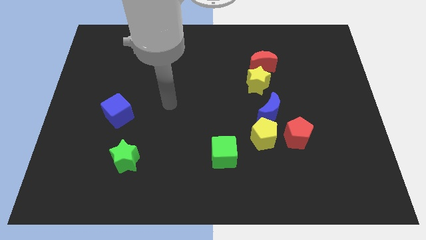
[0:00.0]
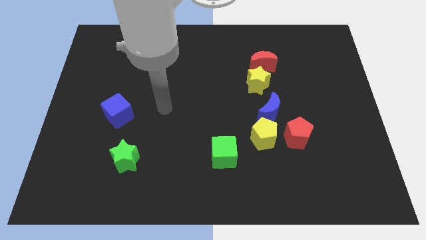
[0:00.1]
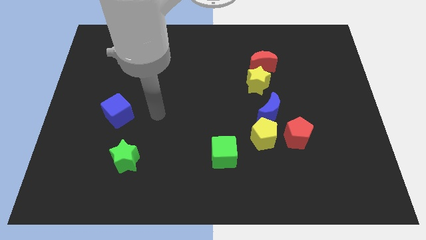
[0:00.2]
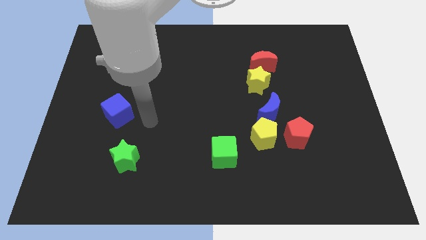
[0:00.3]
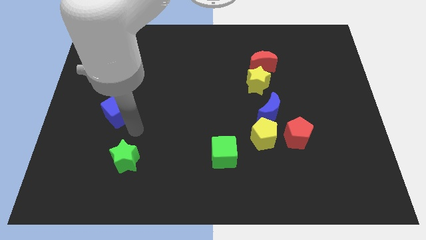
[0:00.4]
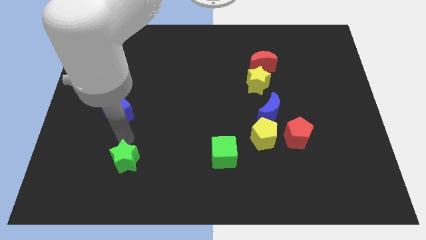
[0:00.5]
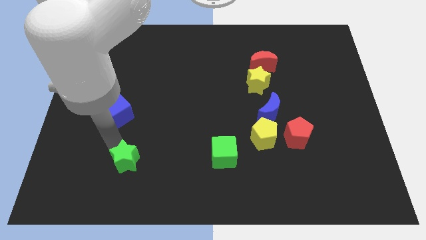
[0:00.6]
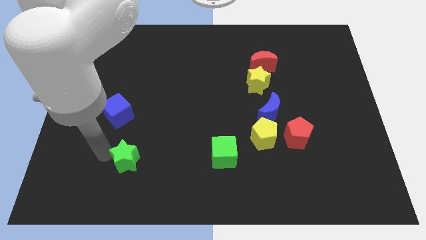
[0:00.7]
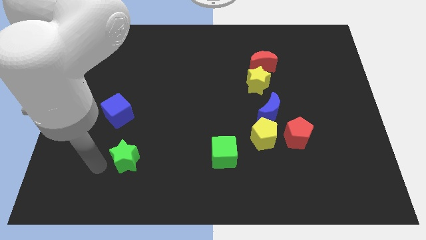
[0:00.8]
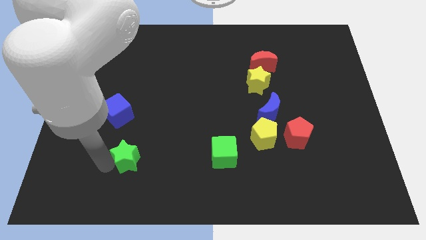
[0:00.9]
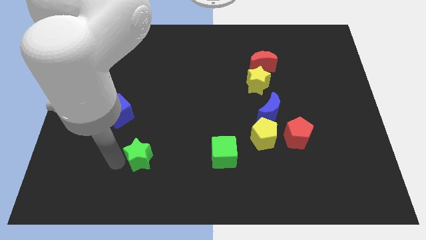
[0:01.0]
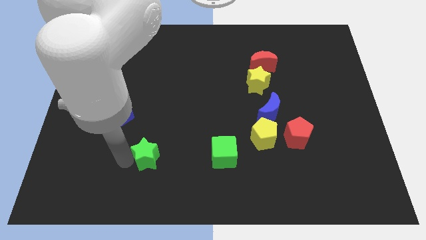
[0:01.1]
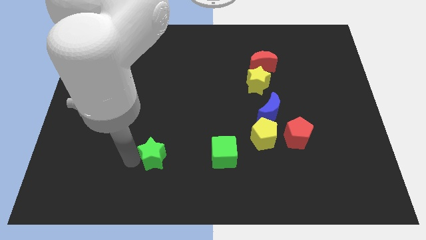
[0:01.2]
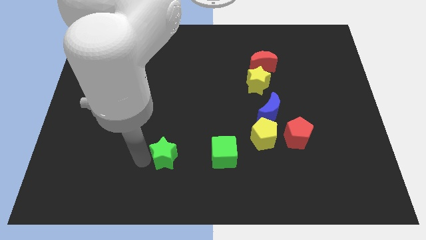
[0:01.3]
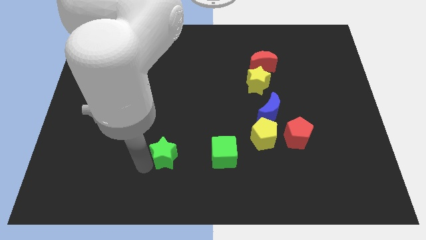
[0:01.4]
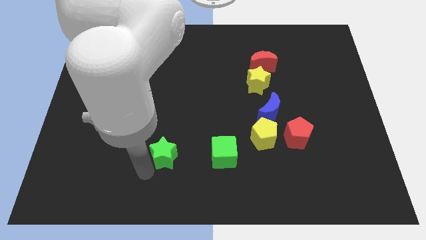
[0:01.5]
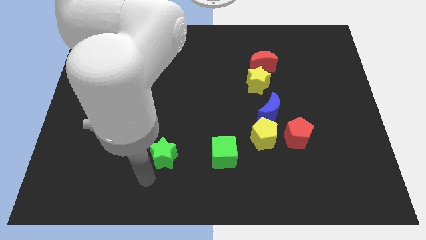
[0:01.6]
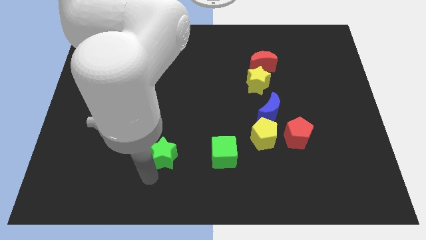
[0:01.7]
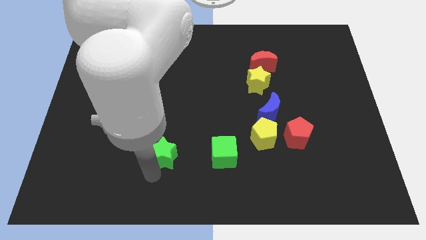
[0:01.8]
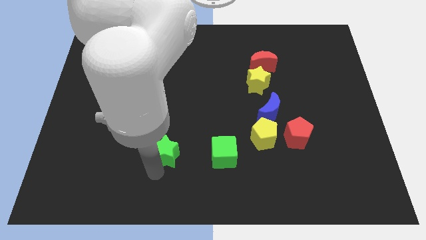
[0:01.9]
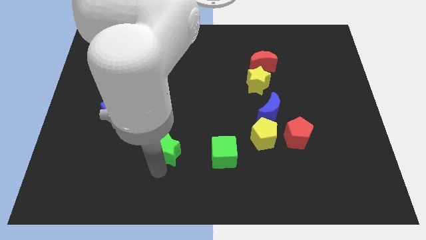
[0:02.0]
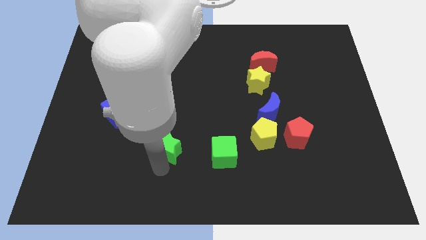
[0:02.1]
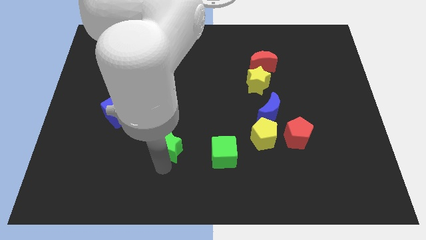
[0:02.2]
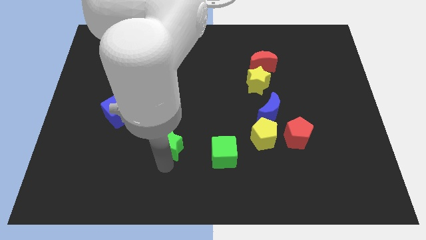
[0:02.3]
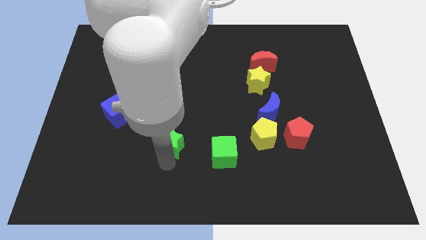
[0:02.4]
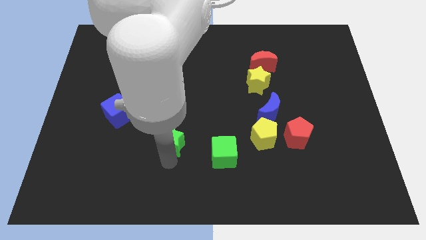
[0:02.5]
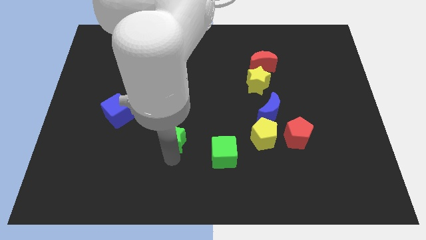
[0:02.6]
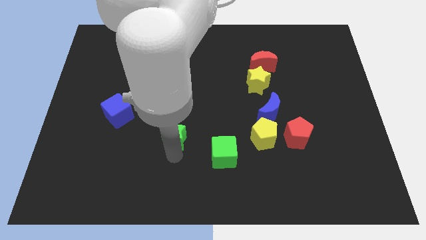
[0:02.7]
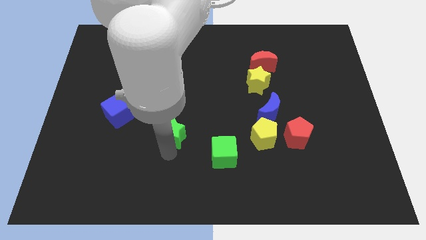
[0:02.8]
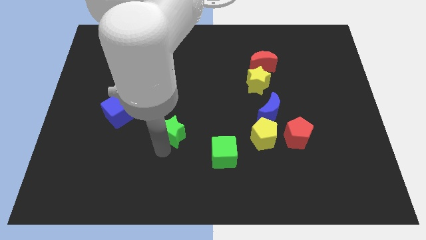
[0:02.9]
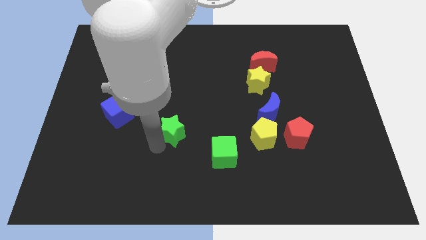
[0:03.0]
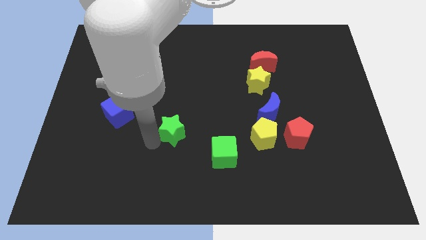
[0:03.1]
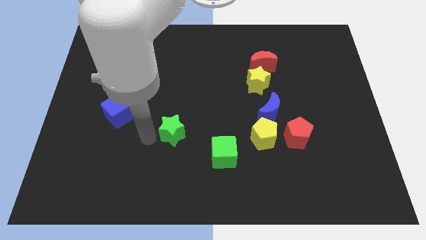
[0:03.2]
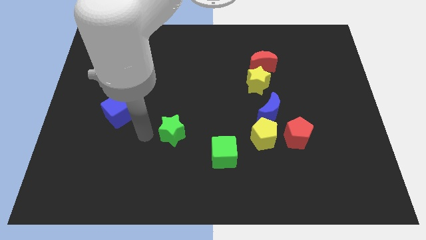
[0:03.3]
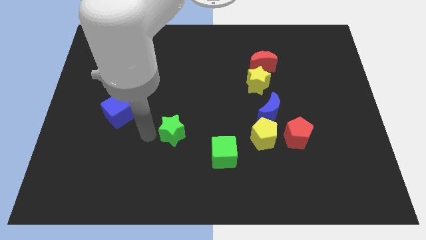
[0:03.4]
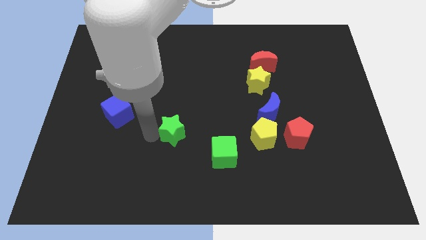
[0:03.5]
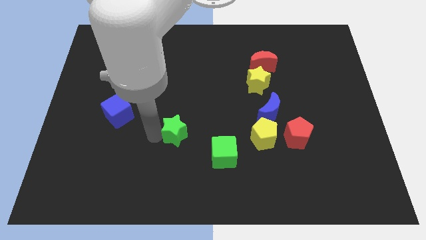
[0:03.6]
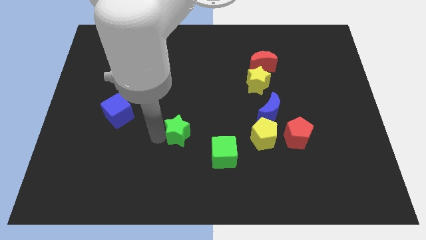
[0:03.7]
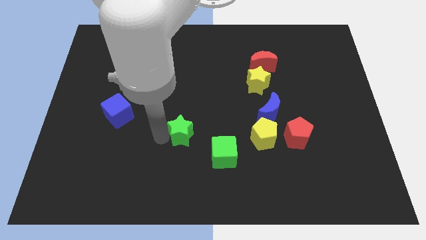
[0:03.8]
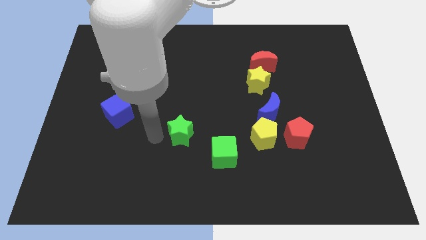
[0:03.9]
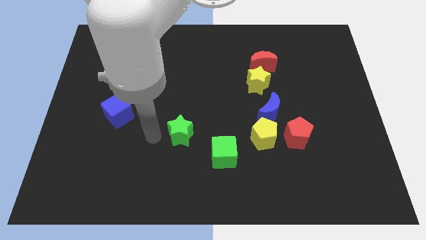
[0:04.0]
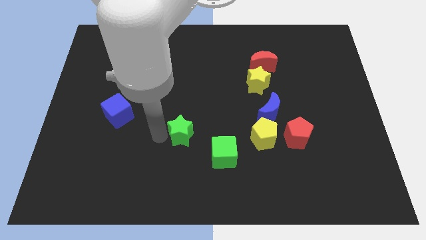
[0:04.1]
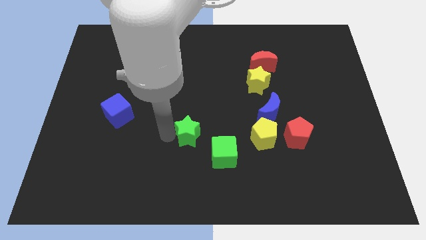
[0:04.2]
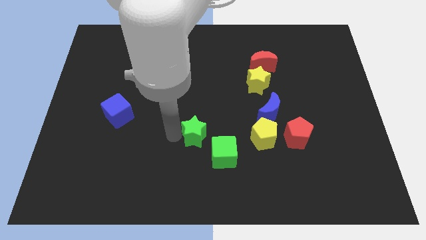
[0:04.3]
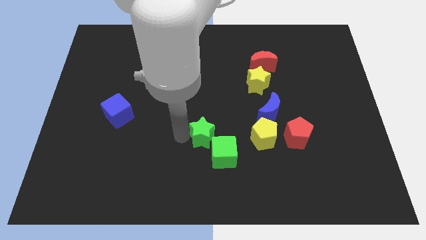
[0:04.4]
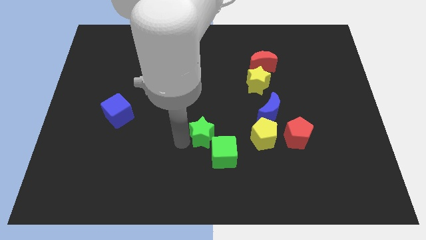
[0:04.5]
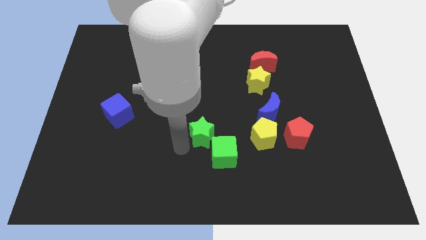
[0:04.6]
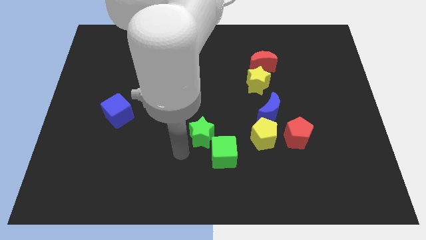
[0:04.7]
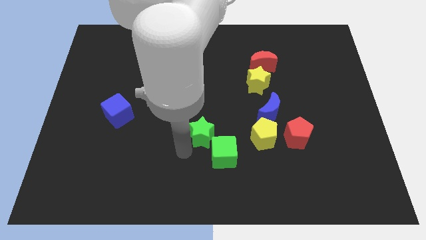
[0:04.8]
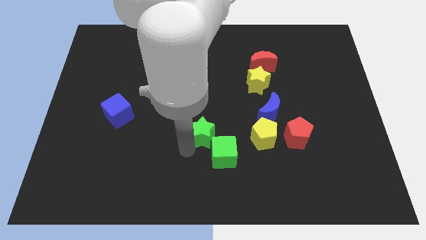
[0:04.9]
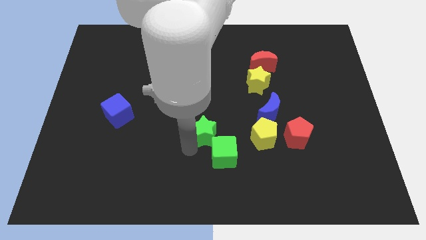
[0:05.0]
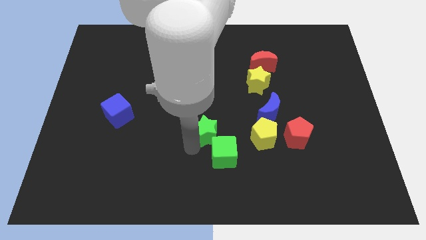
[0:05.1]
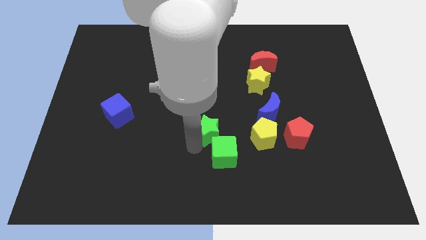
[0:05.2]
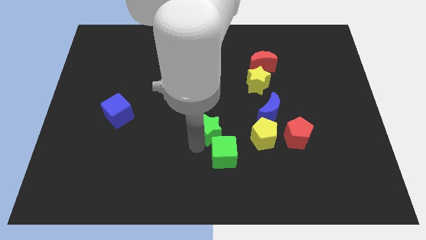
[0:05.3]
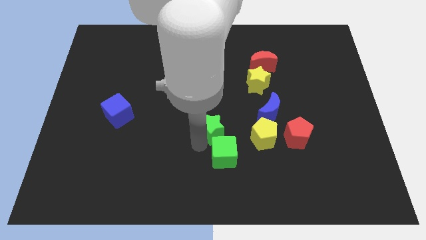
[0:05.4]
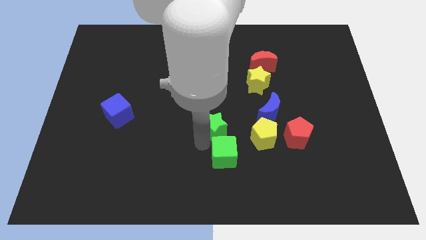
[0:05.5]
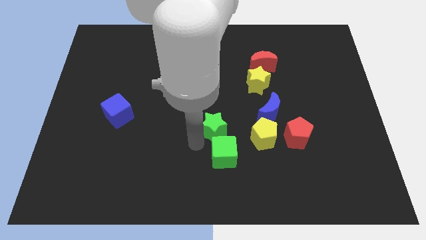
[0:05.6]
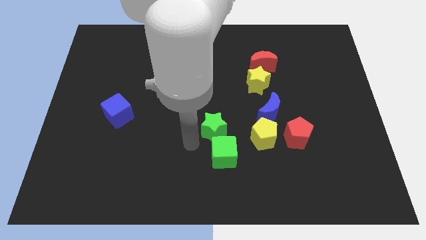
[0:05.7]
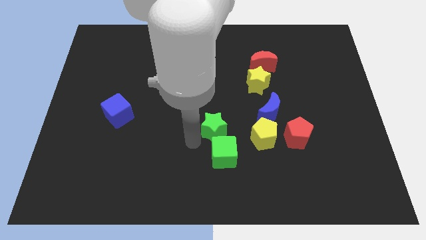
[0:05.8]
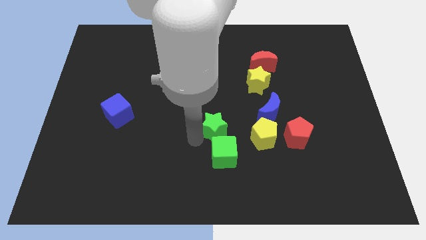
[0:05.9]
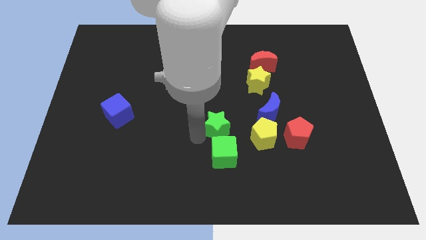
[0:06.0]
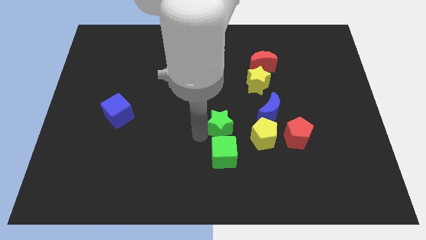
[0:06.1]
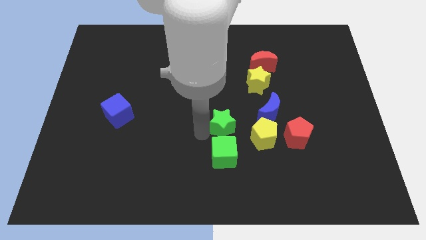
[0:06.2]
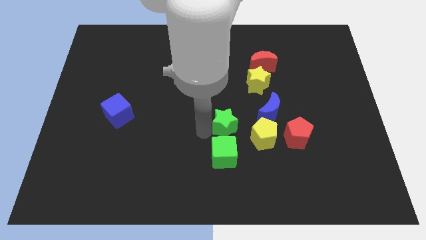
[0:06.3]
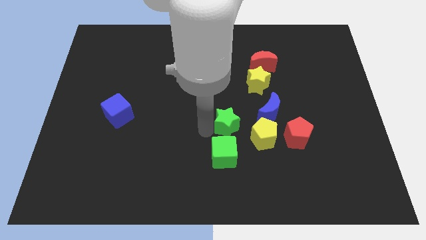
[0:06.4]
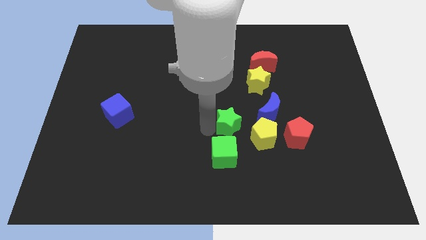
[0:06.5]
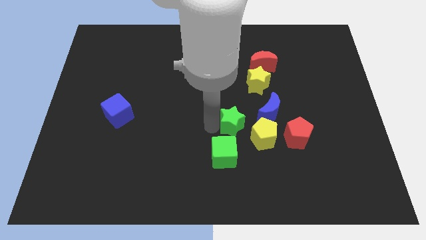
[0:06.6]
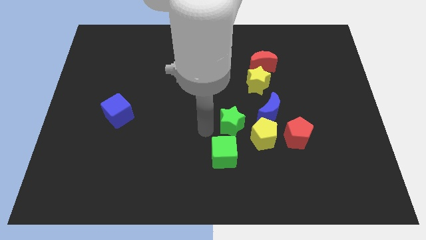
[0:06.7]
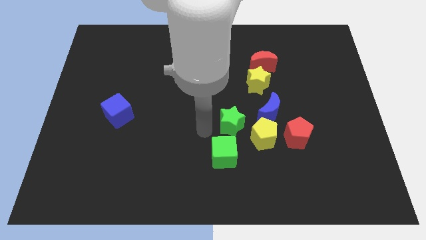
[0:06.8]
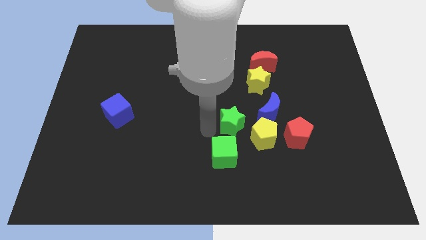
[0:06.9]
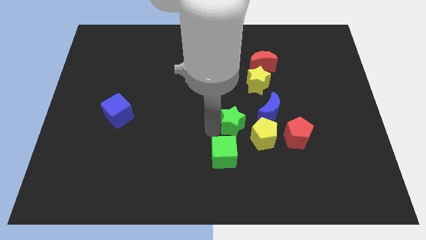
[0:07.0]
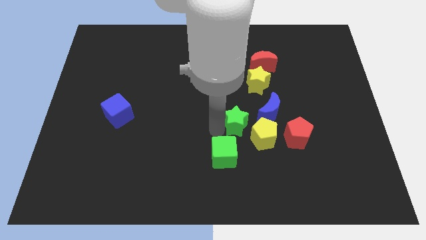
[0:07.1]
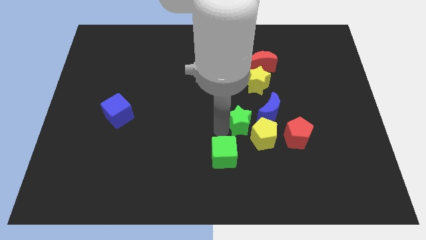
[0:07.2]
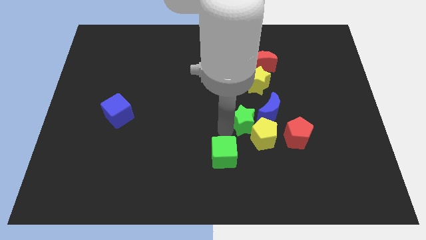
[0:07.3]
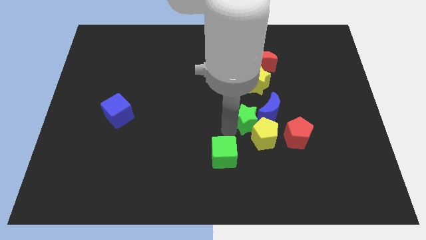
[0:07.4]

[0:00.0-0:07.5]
move the green star close to the blue moon
